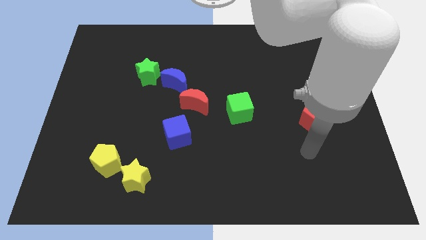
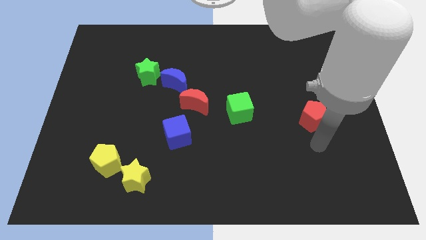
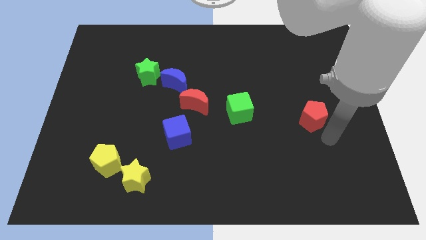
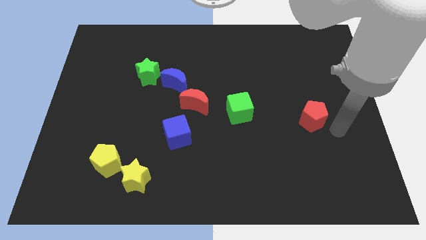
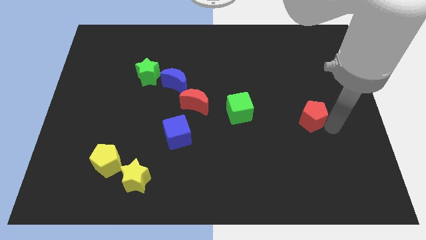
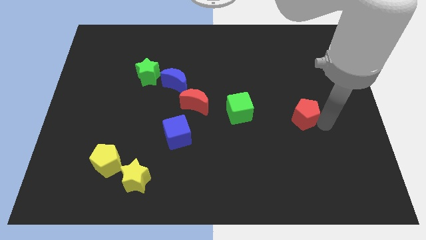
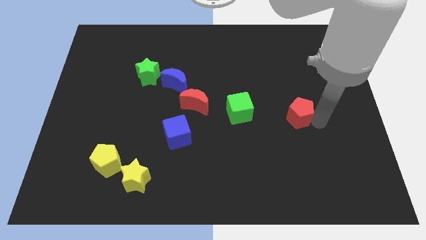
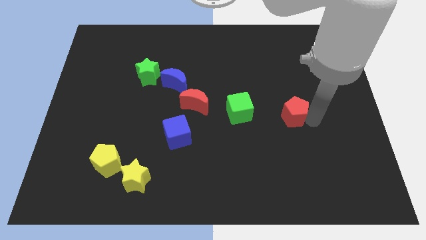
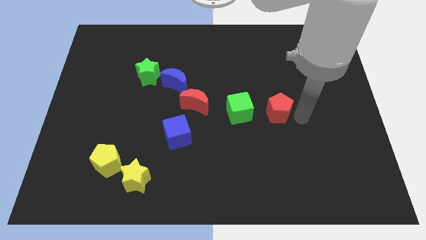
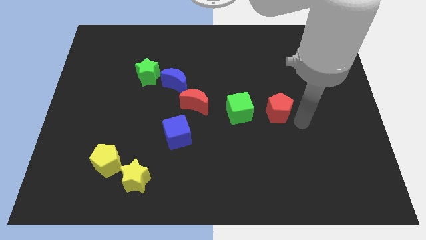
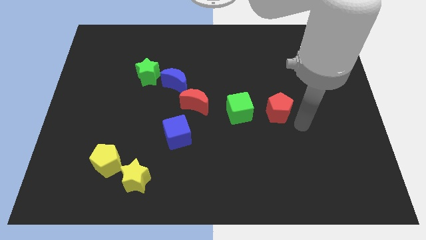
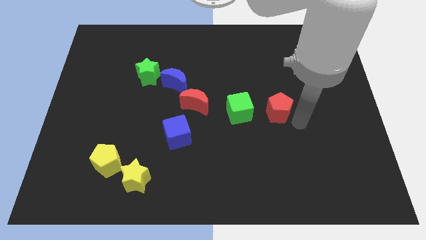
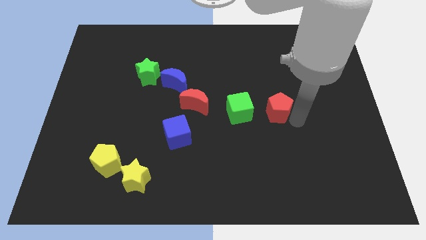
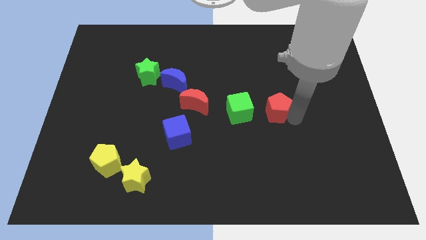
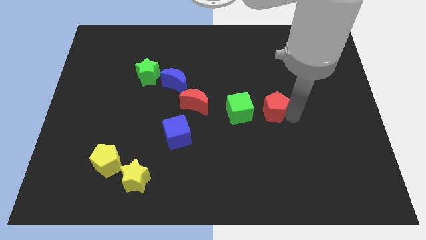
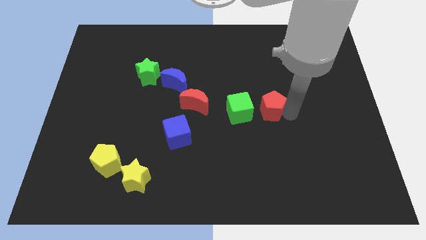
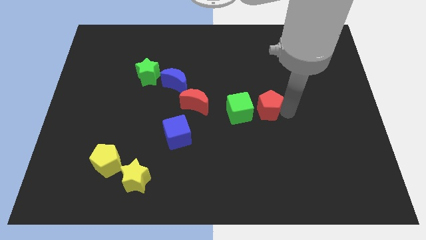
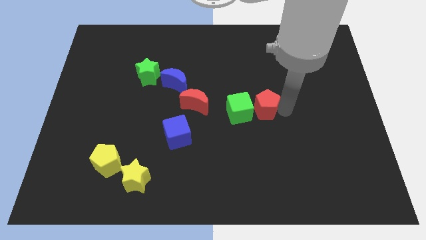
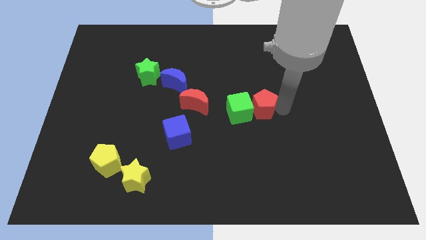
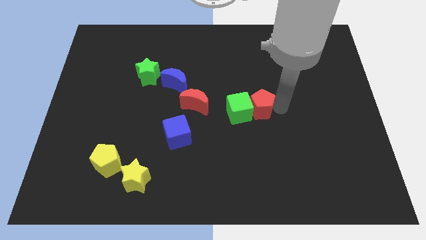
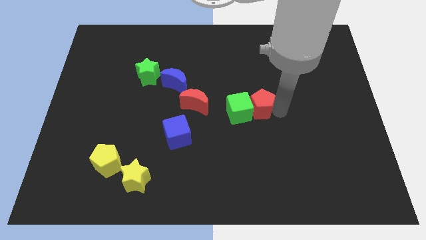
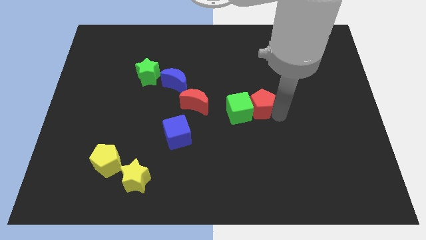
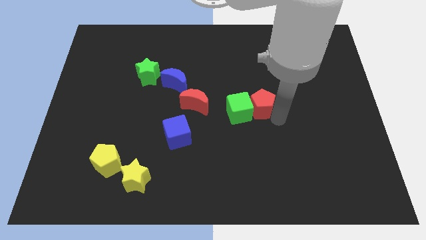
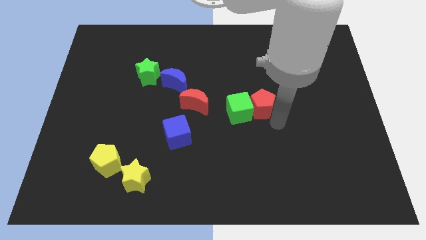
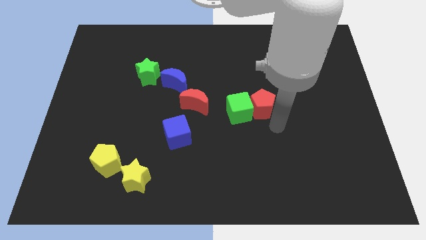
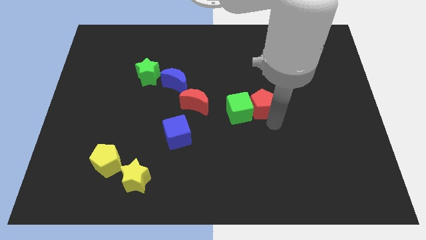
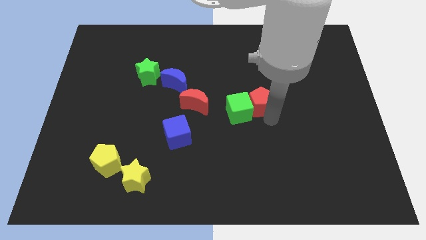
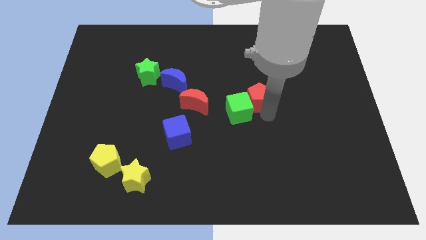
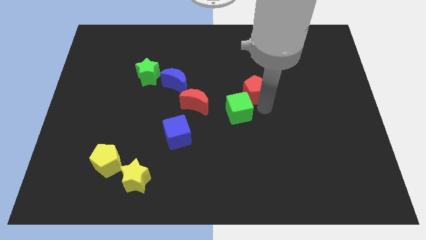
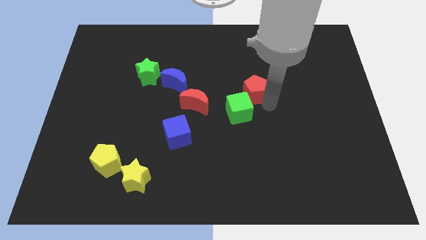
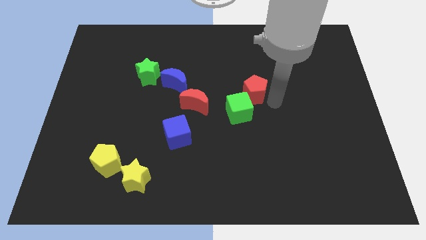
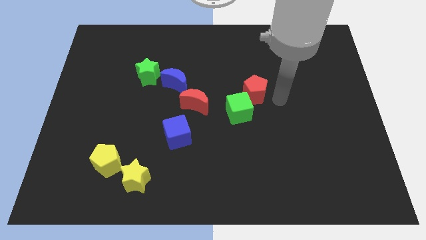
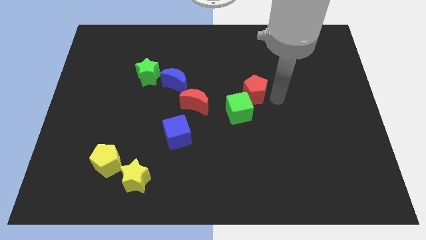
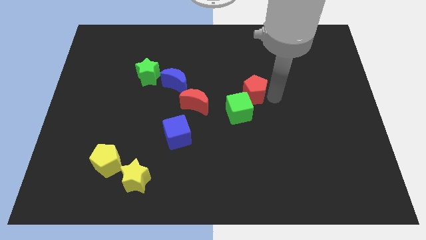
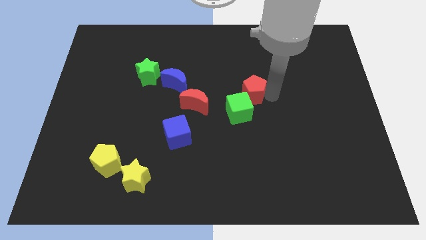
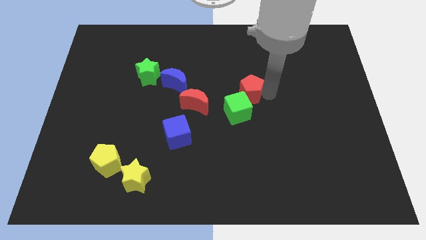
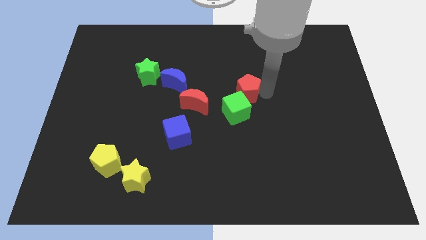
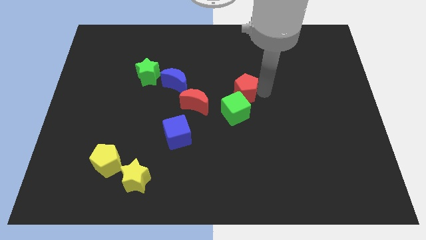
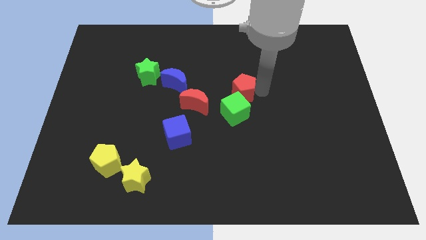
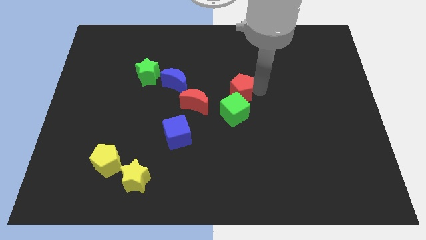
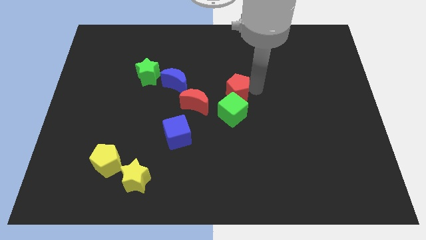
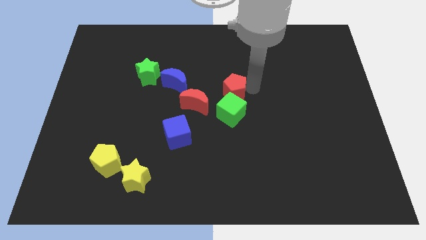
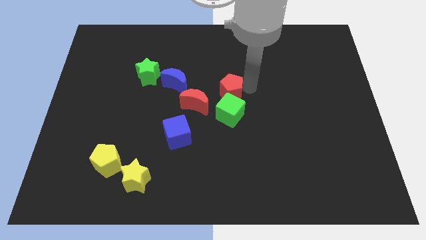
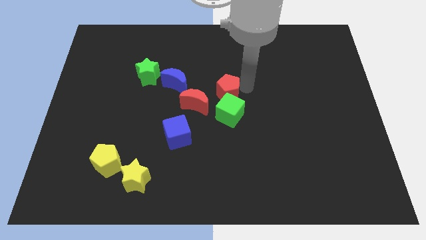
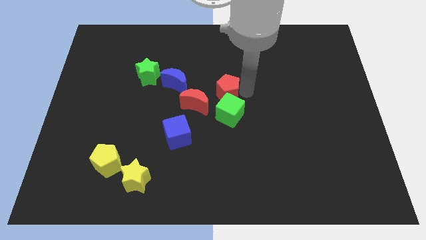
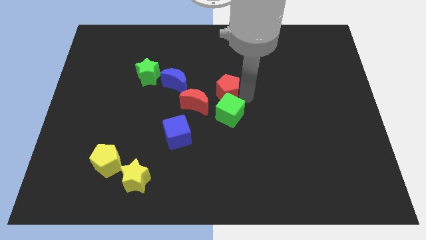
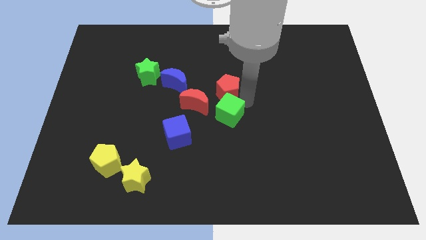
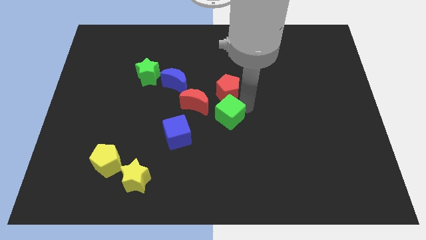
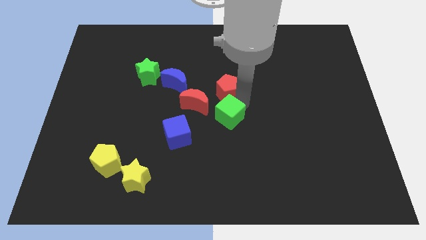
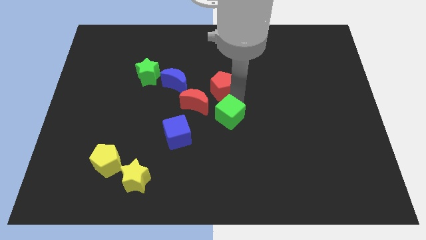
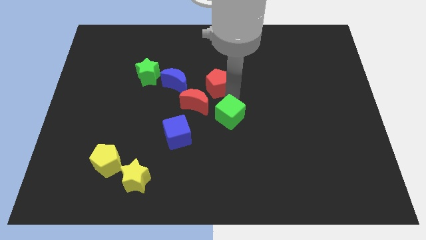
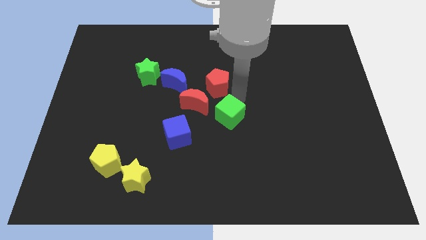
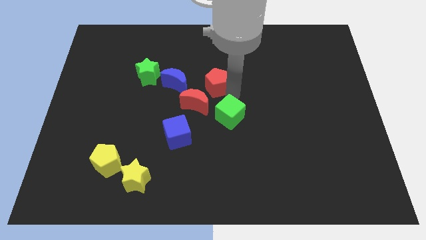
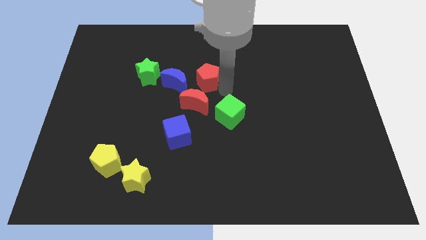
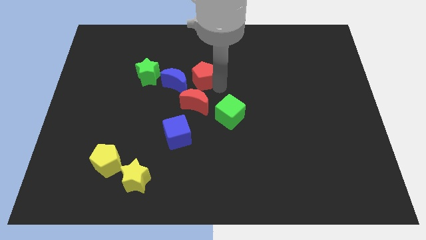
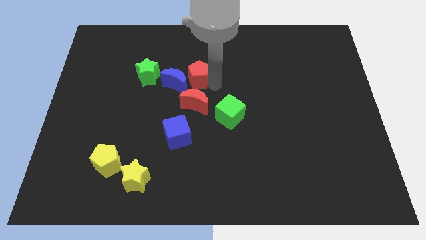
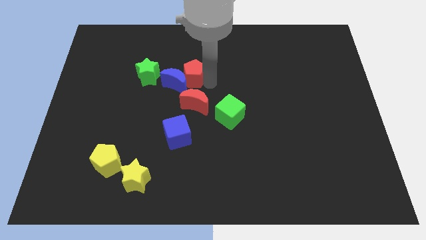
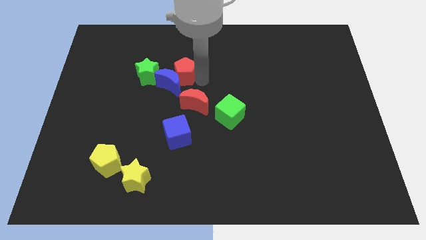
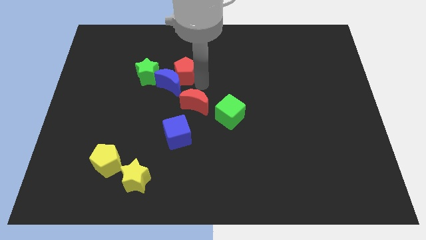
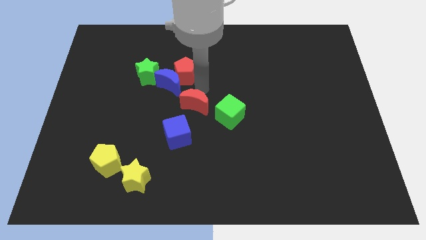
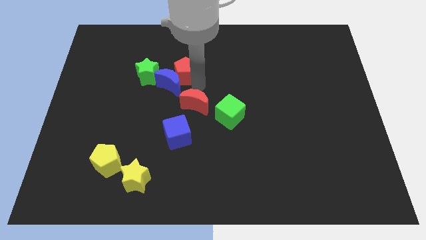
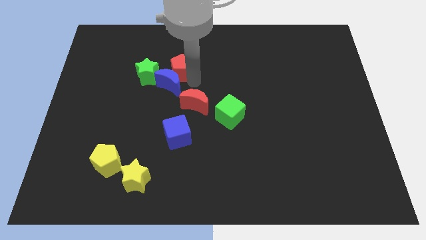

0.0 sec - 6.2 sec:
move the red pentagon diagonally up and to the right of the green star

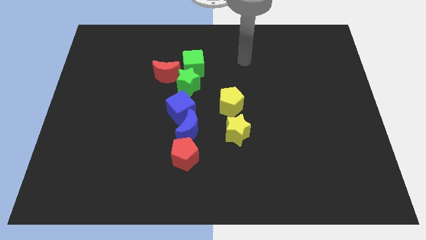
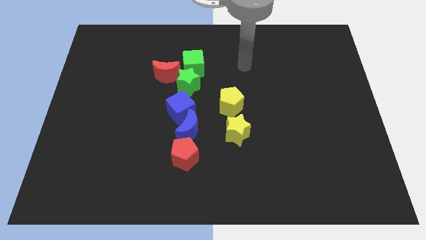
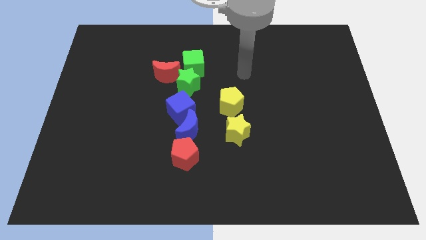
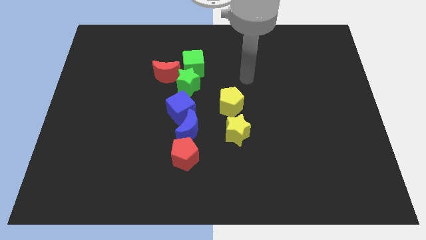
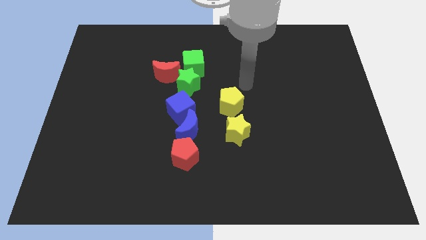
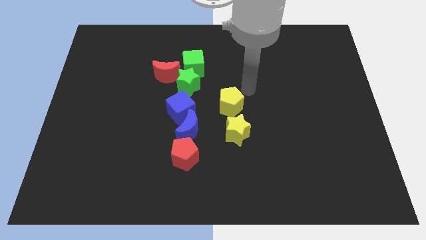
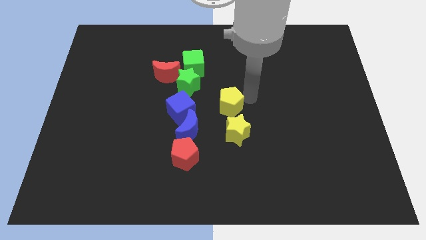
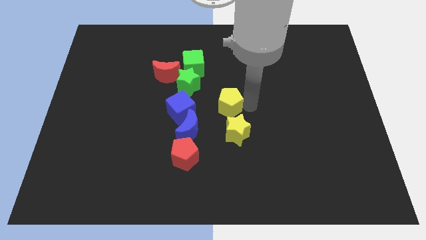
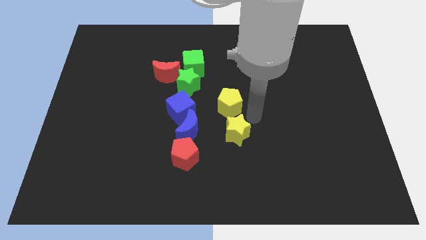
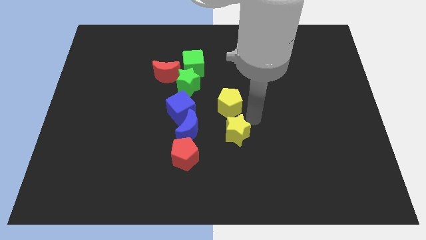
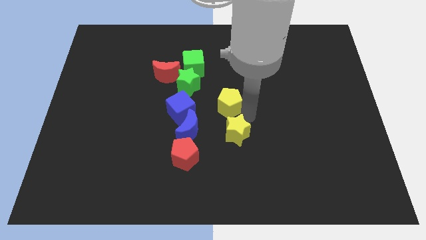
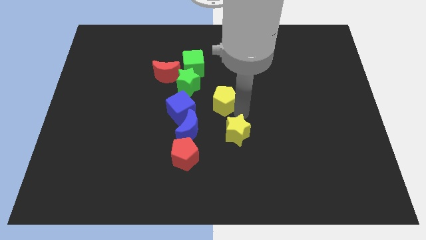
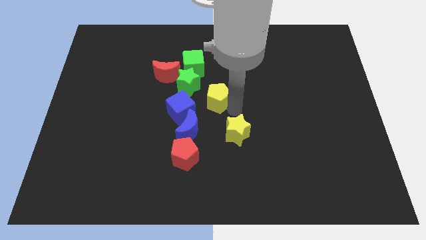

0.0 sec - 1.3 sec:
move the yellow pentagon to the top right of the blue cube
